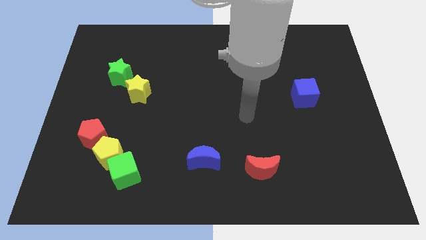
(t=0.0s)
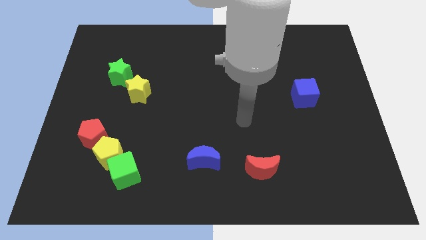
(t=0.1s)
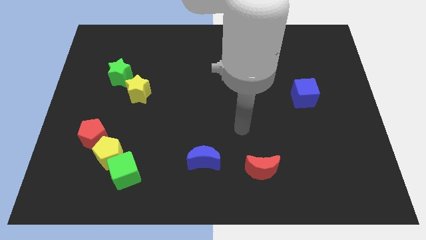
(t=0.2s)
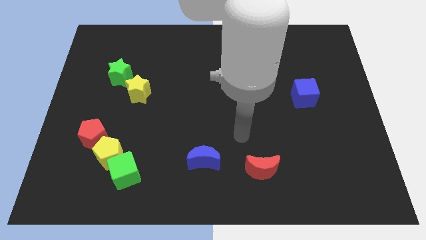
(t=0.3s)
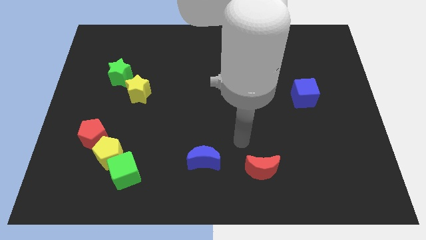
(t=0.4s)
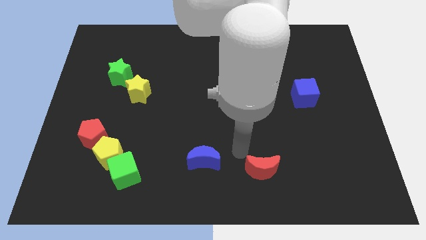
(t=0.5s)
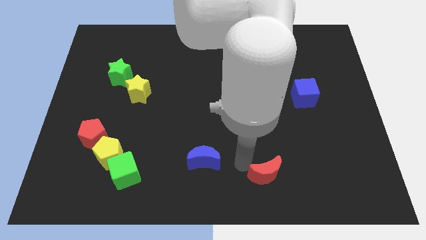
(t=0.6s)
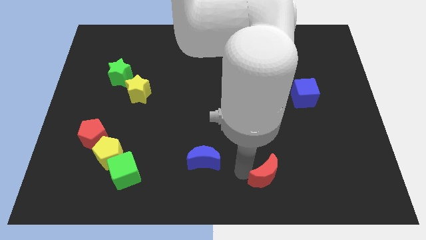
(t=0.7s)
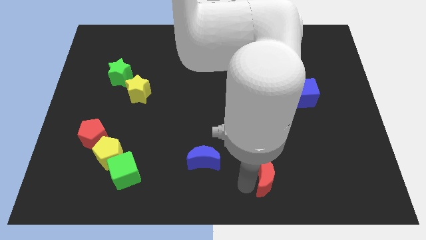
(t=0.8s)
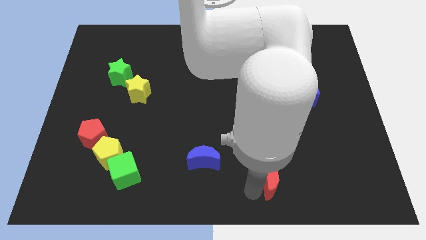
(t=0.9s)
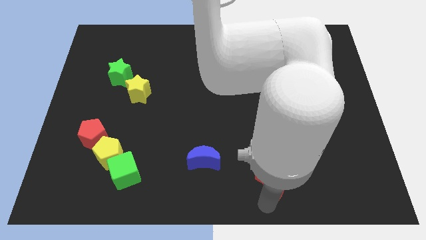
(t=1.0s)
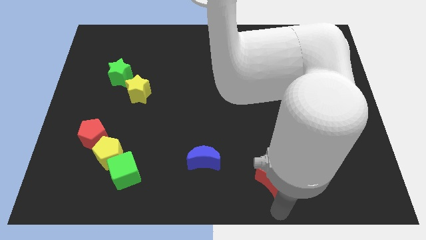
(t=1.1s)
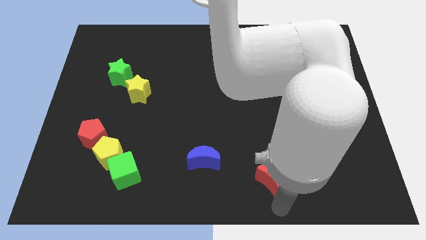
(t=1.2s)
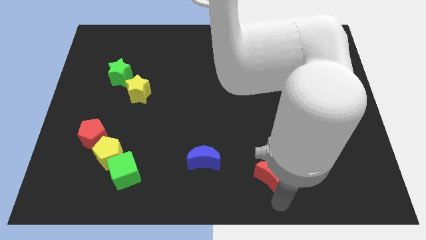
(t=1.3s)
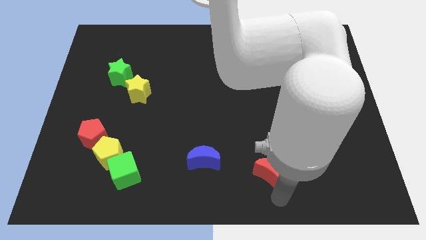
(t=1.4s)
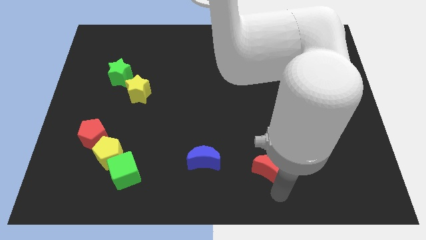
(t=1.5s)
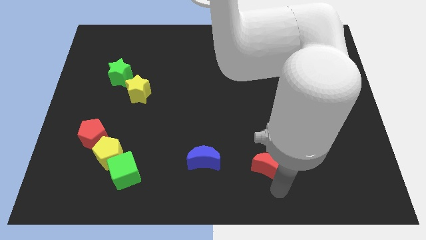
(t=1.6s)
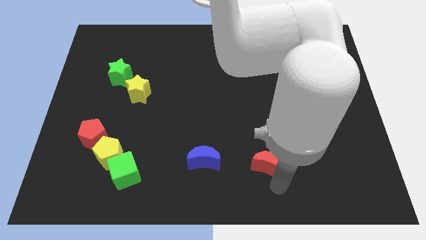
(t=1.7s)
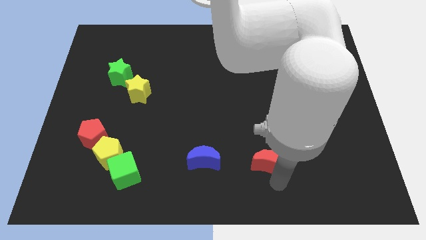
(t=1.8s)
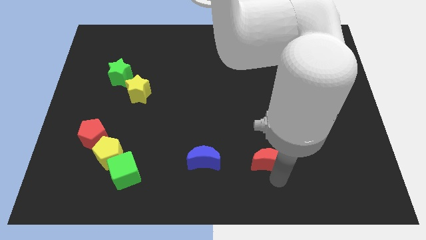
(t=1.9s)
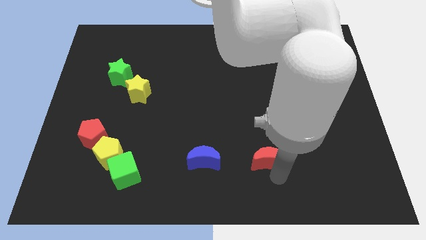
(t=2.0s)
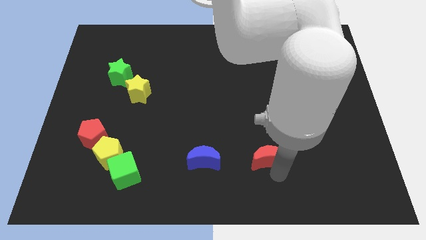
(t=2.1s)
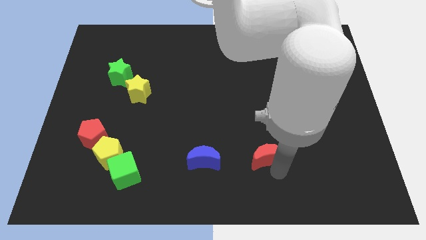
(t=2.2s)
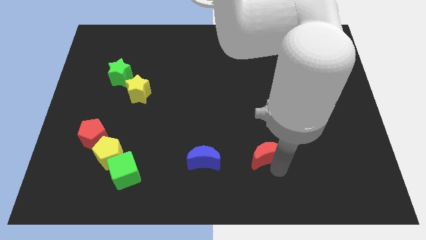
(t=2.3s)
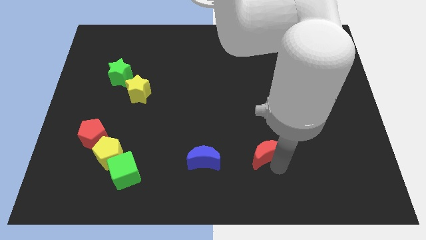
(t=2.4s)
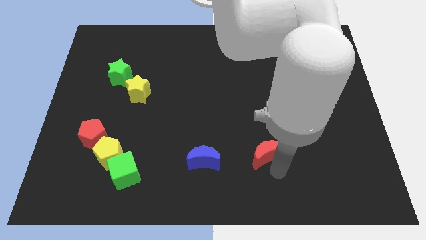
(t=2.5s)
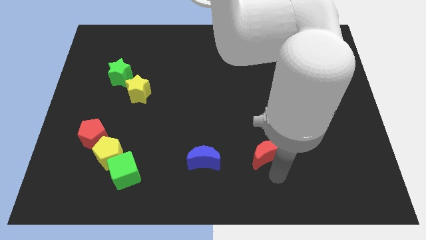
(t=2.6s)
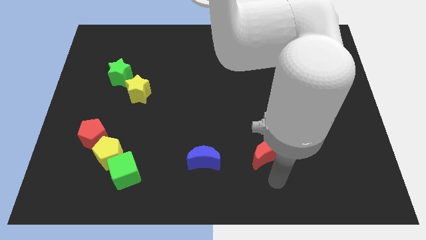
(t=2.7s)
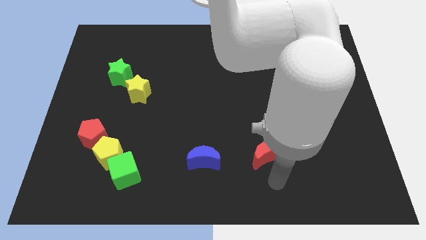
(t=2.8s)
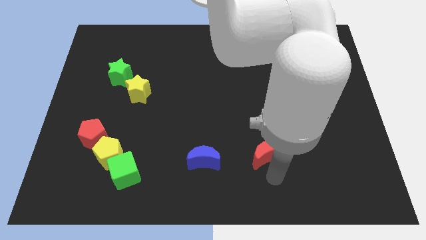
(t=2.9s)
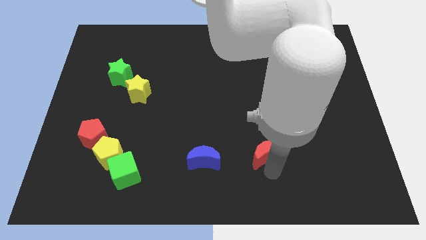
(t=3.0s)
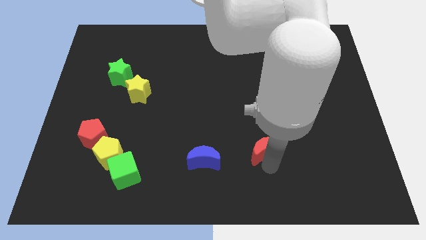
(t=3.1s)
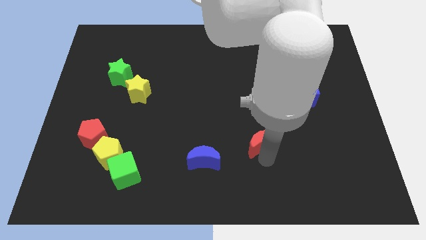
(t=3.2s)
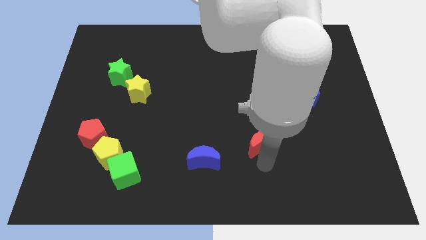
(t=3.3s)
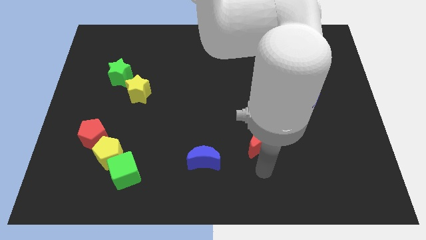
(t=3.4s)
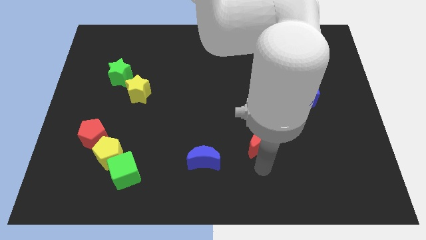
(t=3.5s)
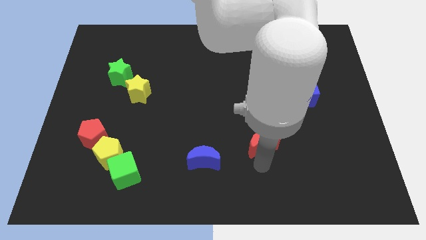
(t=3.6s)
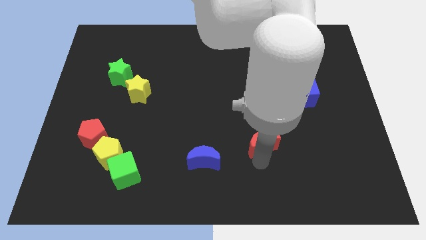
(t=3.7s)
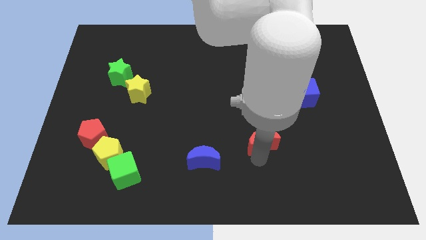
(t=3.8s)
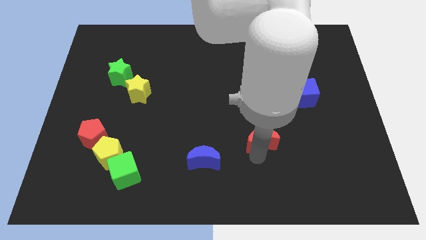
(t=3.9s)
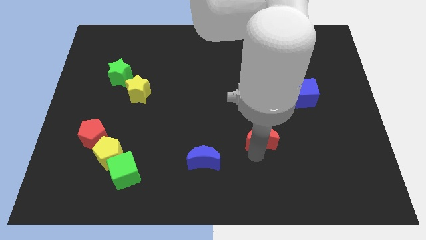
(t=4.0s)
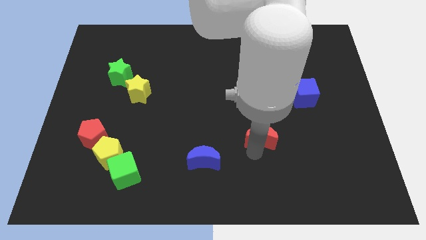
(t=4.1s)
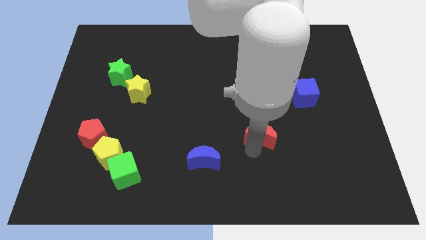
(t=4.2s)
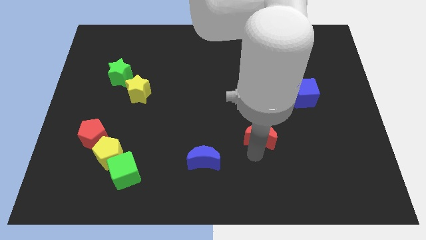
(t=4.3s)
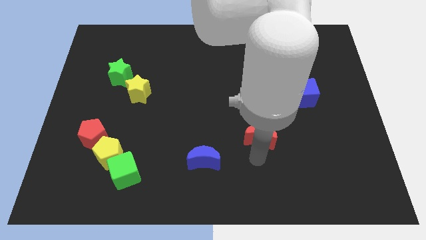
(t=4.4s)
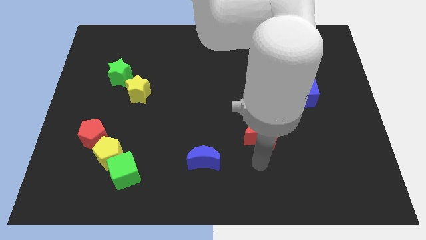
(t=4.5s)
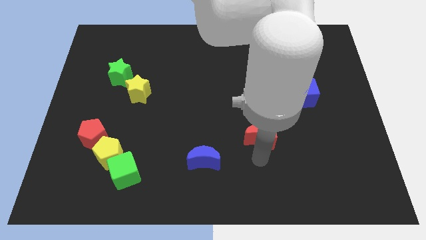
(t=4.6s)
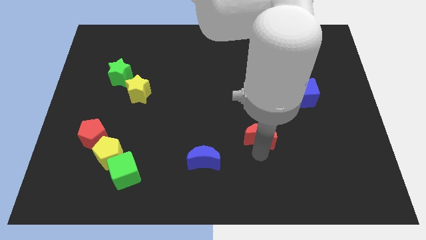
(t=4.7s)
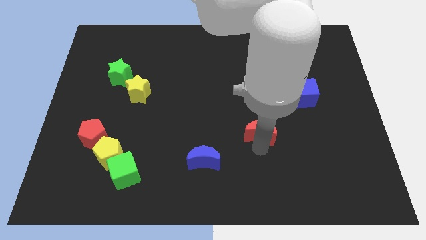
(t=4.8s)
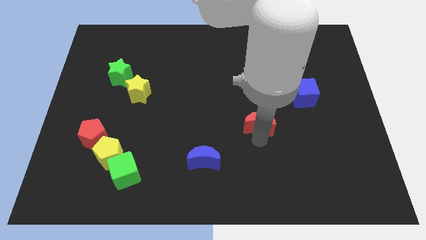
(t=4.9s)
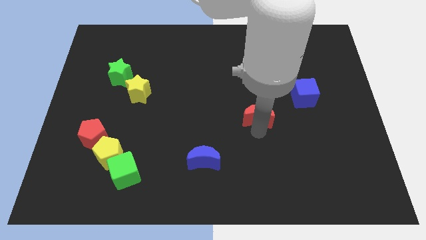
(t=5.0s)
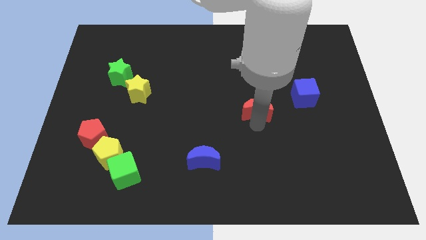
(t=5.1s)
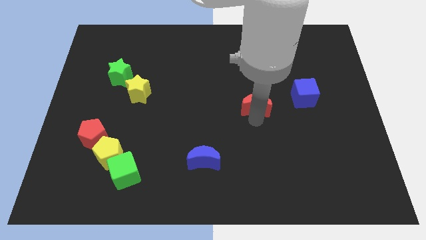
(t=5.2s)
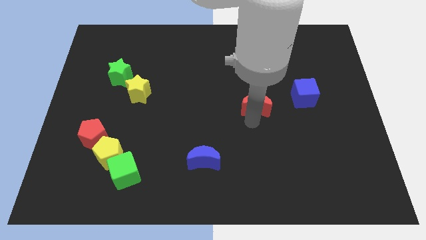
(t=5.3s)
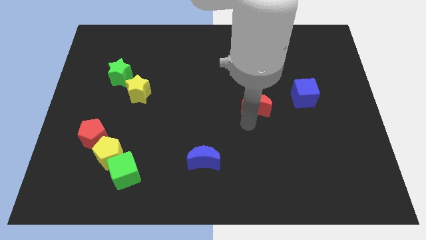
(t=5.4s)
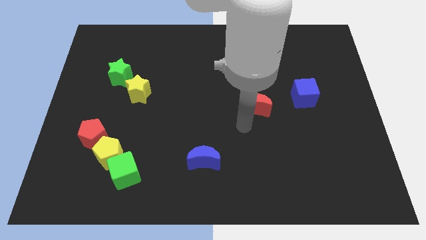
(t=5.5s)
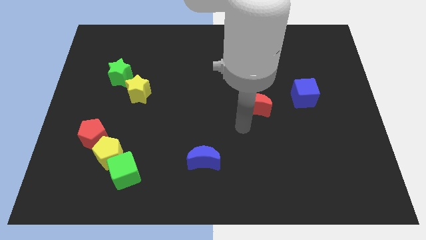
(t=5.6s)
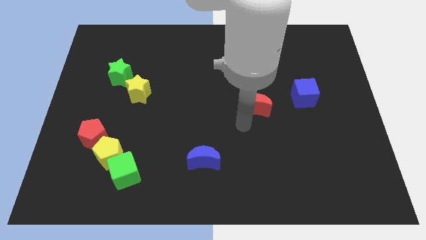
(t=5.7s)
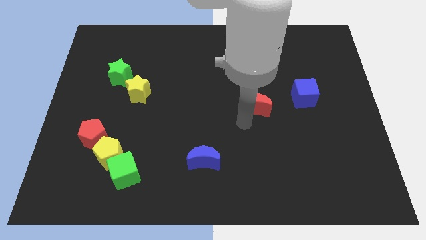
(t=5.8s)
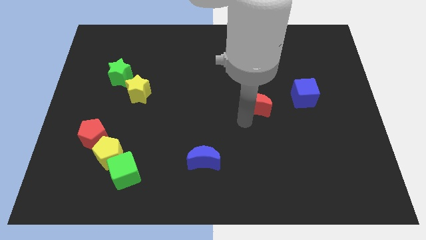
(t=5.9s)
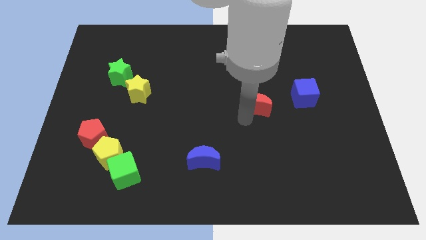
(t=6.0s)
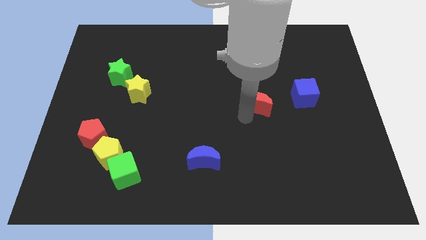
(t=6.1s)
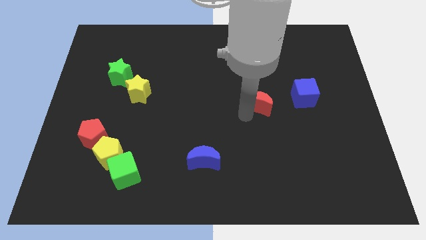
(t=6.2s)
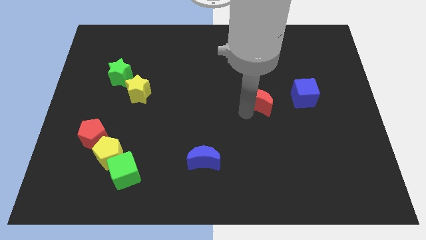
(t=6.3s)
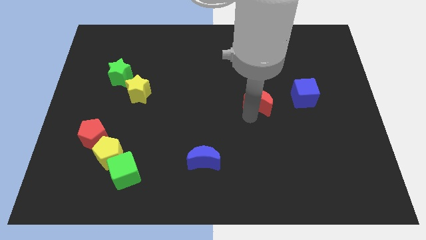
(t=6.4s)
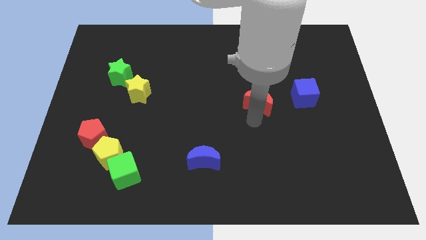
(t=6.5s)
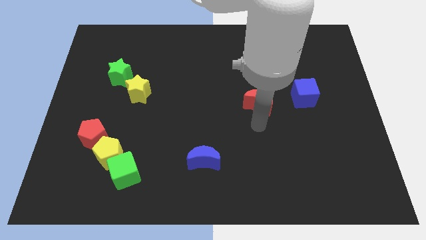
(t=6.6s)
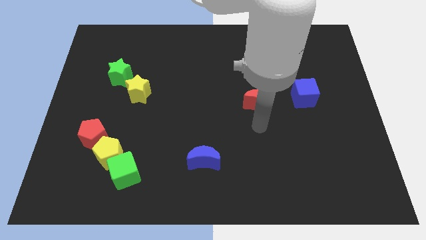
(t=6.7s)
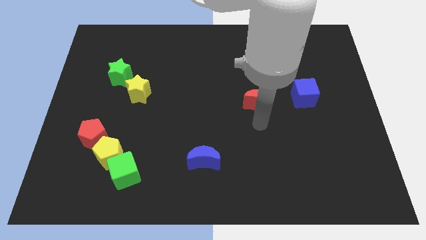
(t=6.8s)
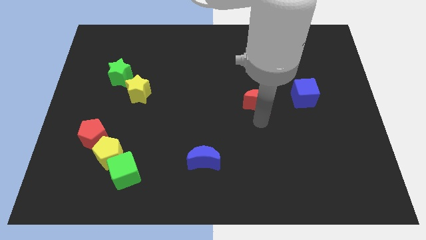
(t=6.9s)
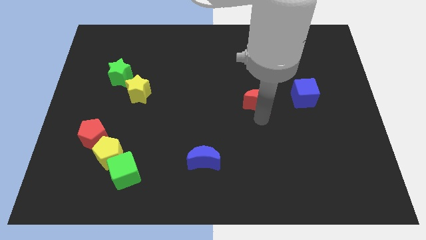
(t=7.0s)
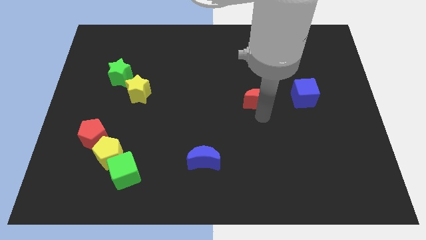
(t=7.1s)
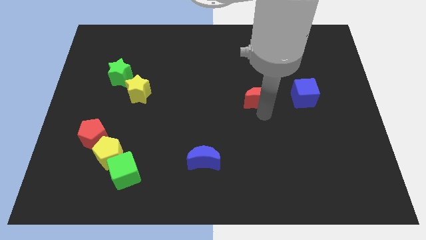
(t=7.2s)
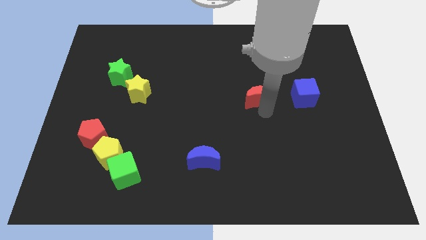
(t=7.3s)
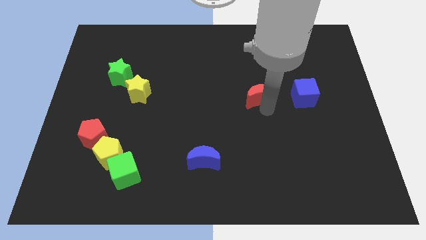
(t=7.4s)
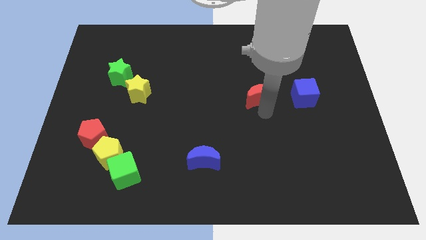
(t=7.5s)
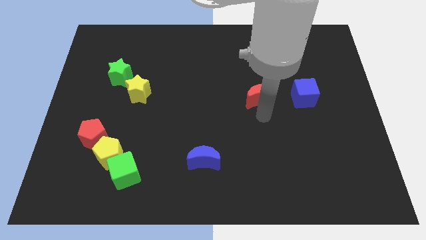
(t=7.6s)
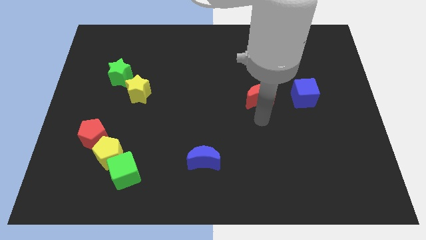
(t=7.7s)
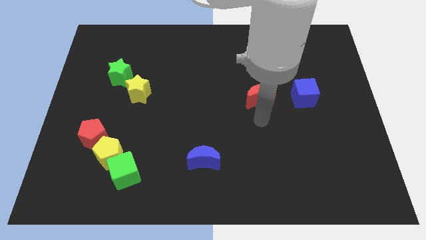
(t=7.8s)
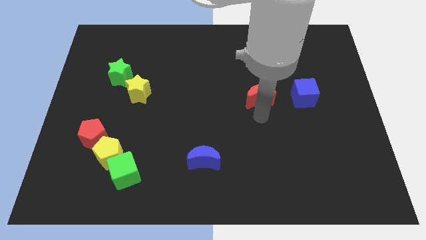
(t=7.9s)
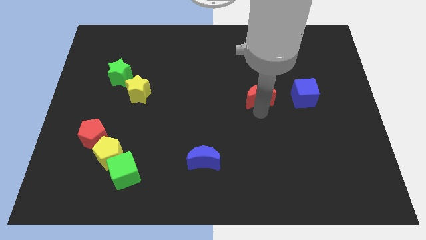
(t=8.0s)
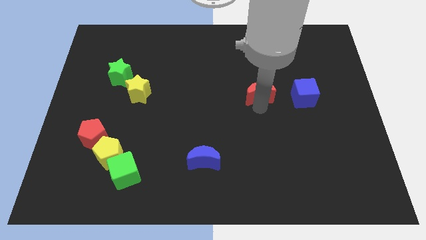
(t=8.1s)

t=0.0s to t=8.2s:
slide the red moon upwards
